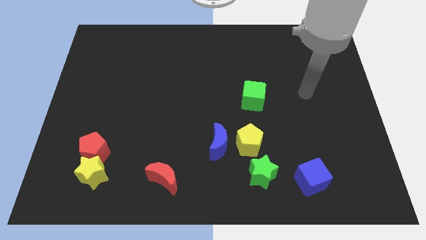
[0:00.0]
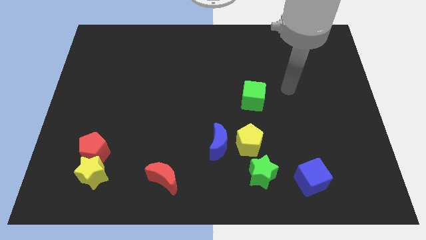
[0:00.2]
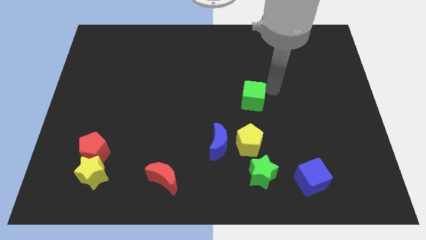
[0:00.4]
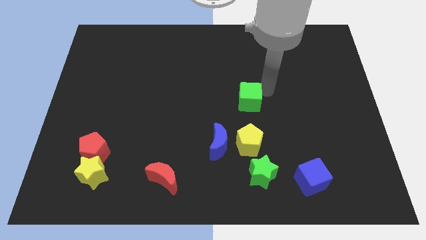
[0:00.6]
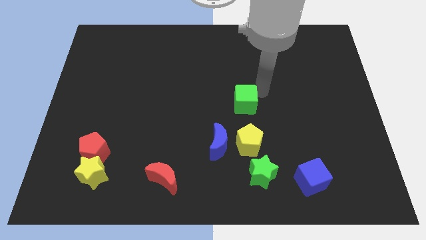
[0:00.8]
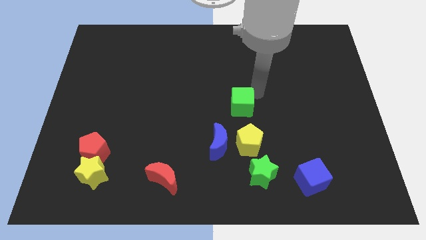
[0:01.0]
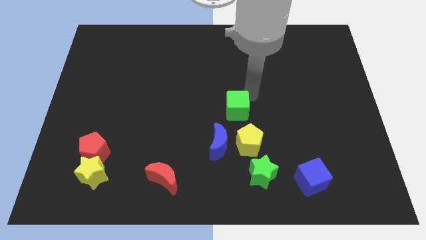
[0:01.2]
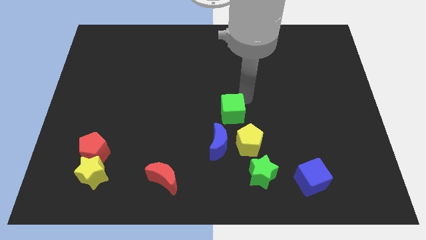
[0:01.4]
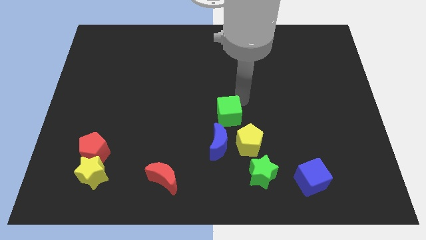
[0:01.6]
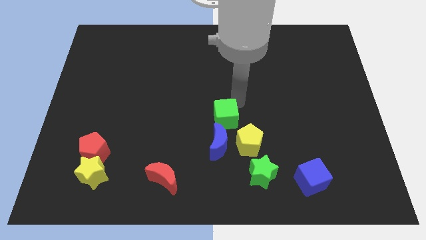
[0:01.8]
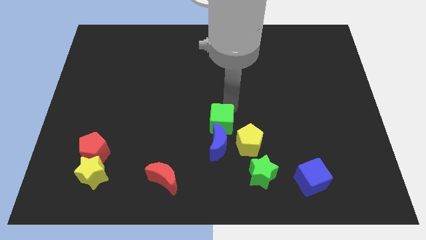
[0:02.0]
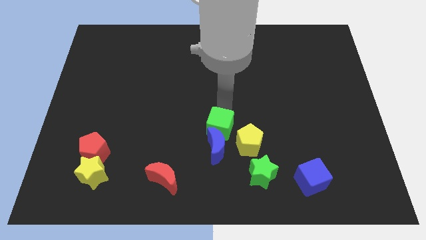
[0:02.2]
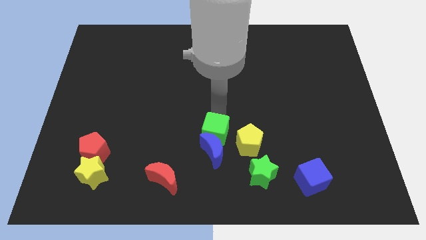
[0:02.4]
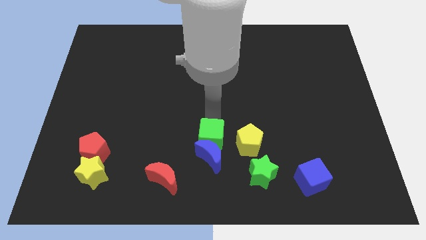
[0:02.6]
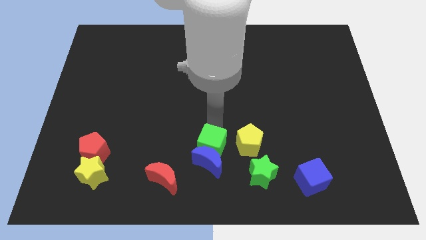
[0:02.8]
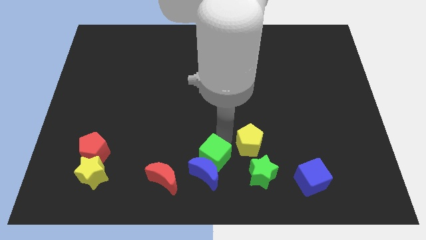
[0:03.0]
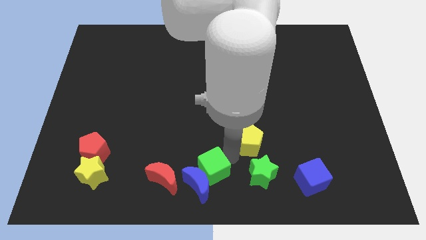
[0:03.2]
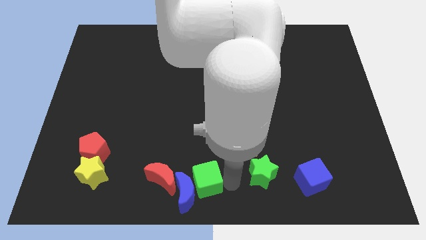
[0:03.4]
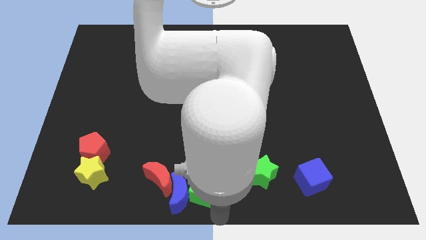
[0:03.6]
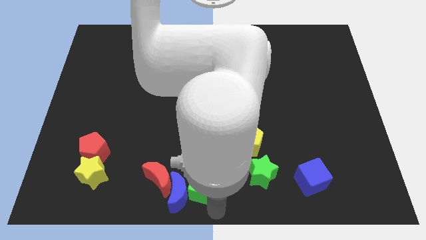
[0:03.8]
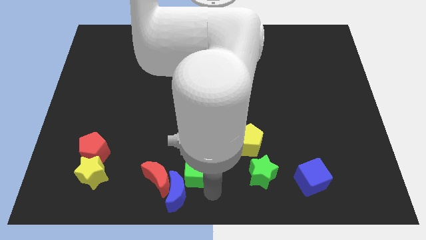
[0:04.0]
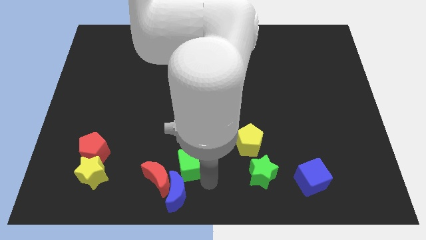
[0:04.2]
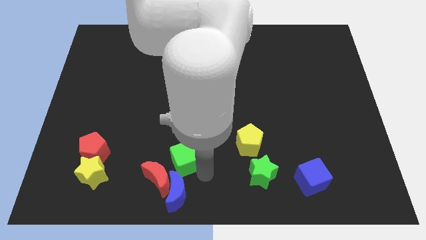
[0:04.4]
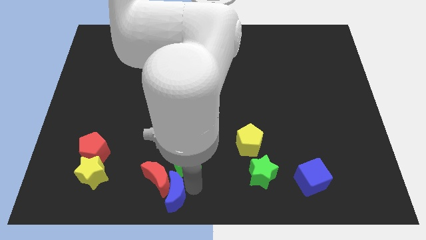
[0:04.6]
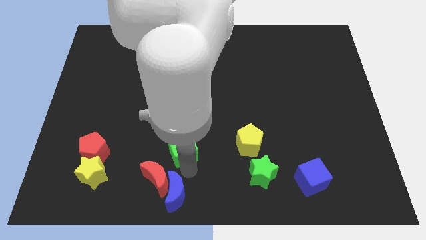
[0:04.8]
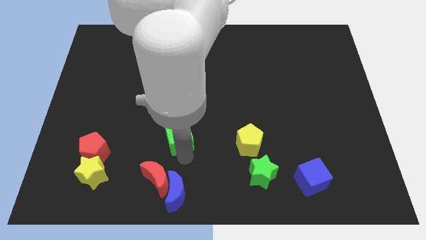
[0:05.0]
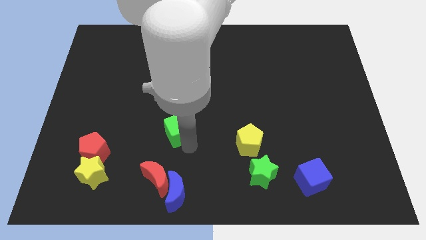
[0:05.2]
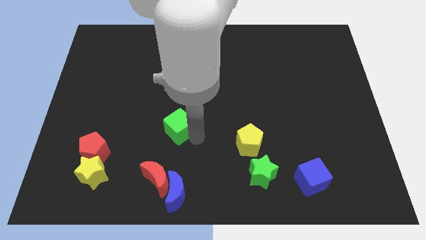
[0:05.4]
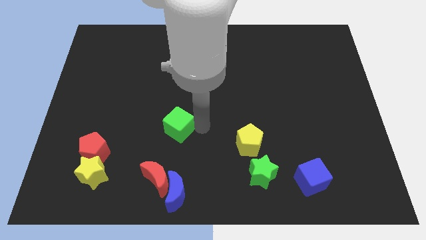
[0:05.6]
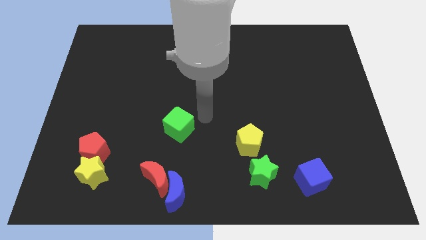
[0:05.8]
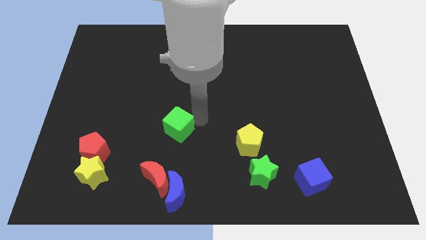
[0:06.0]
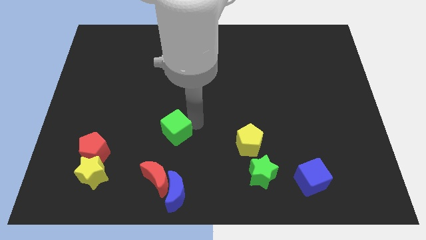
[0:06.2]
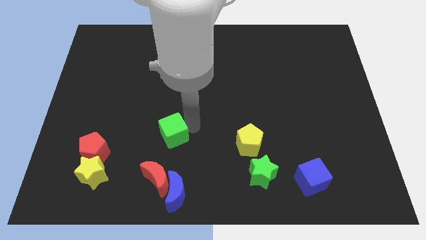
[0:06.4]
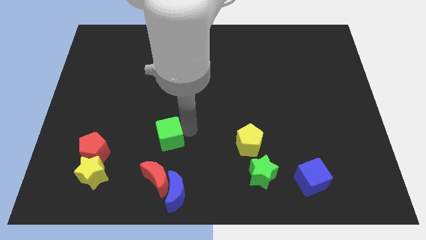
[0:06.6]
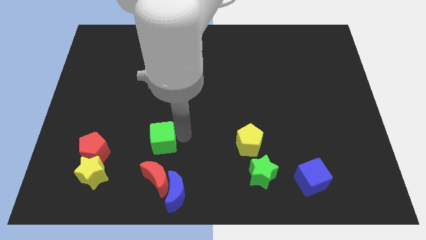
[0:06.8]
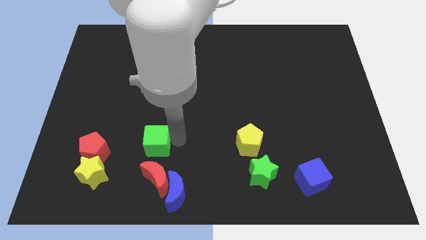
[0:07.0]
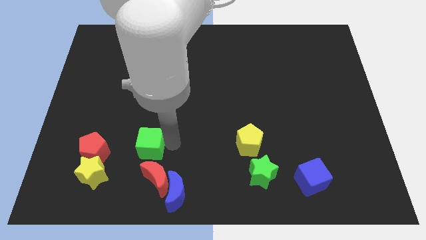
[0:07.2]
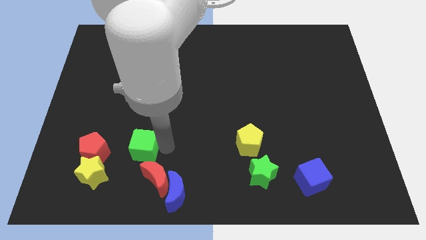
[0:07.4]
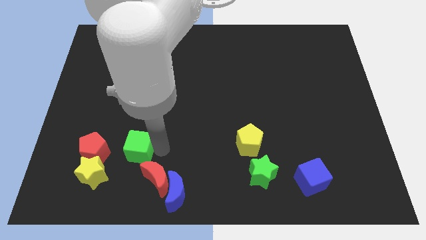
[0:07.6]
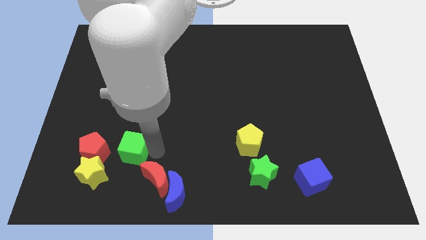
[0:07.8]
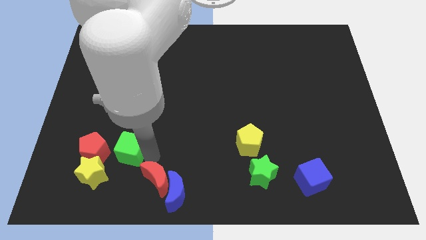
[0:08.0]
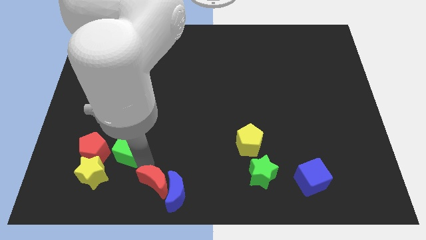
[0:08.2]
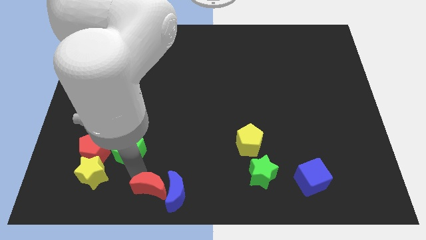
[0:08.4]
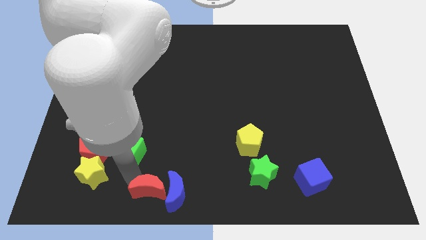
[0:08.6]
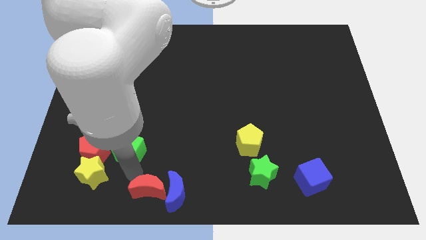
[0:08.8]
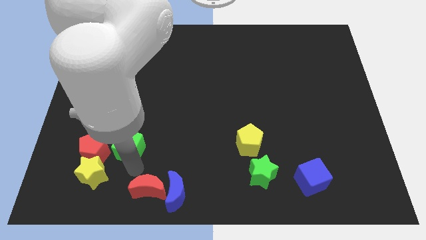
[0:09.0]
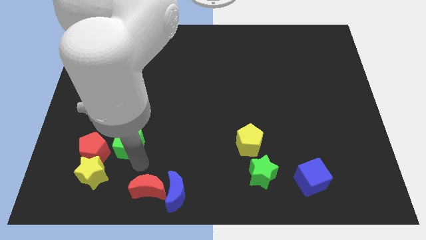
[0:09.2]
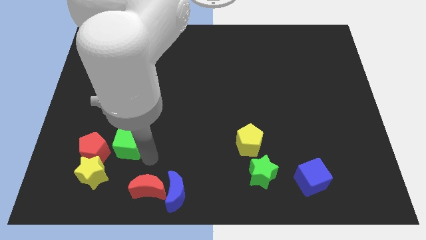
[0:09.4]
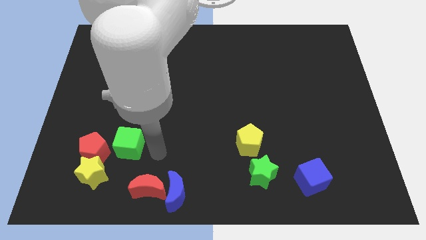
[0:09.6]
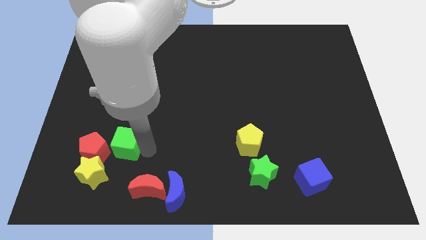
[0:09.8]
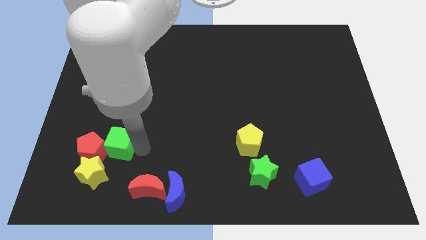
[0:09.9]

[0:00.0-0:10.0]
put the green cube next to the red pentagon

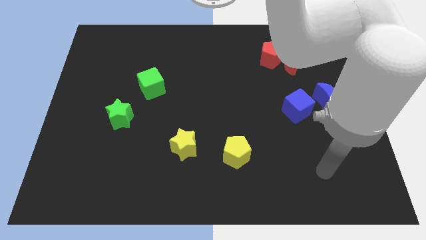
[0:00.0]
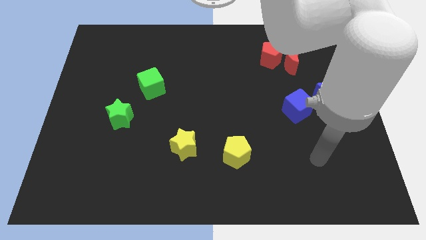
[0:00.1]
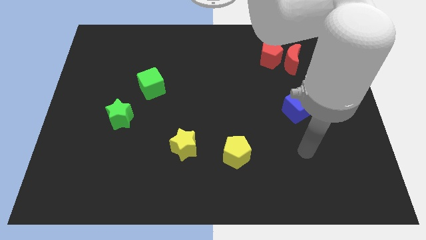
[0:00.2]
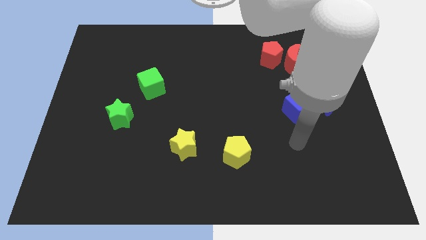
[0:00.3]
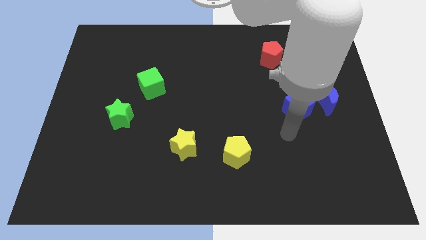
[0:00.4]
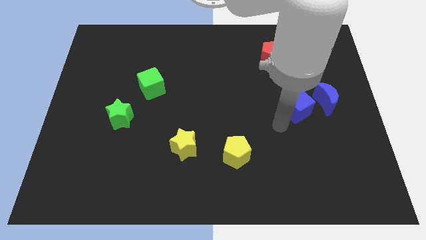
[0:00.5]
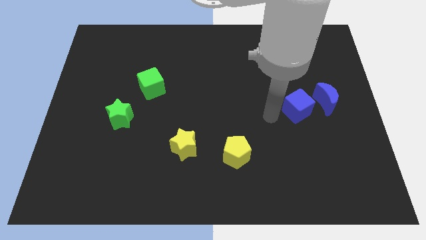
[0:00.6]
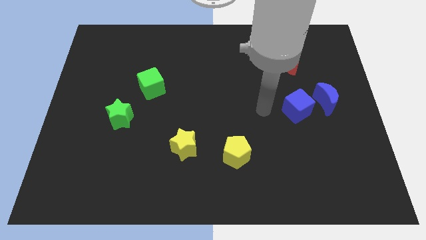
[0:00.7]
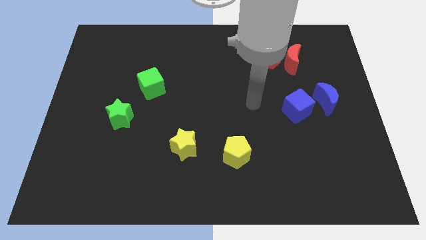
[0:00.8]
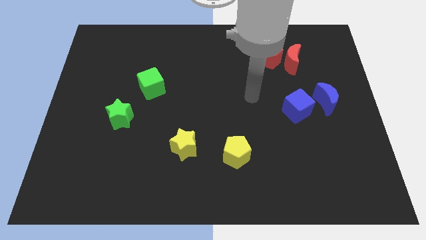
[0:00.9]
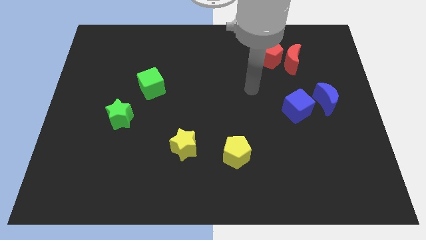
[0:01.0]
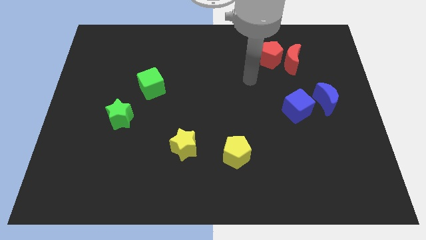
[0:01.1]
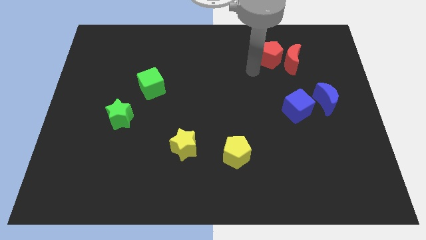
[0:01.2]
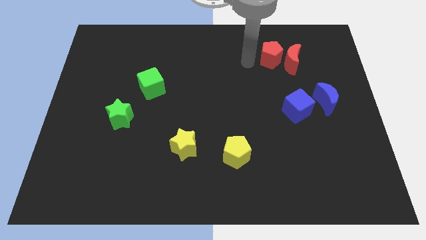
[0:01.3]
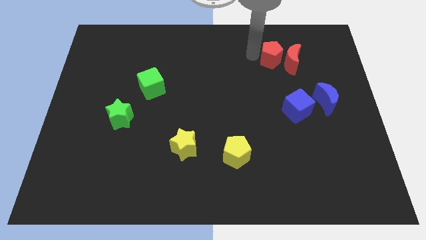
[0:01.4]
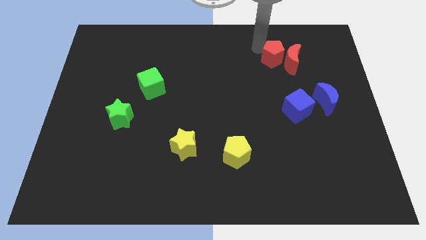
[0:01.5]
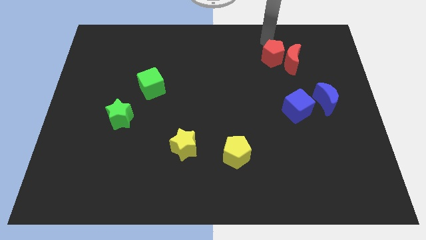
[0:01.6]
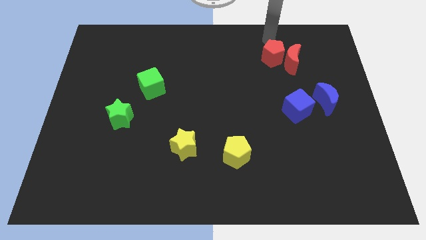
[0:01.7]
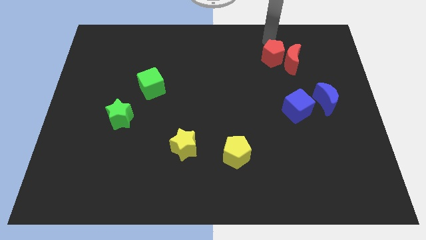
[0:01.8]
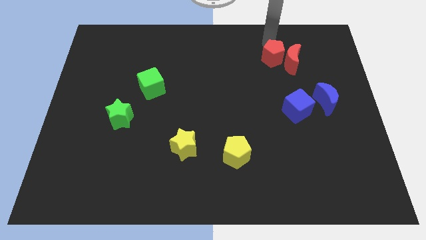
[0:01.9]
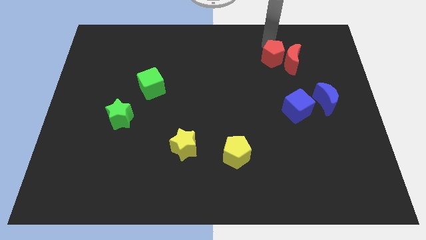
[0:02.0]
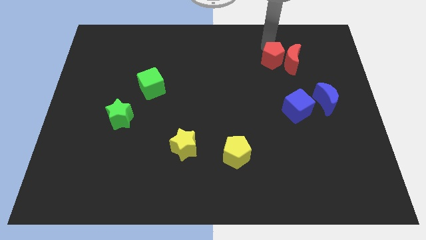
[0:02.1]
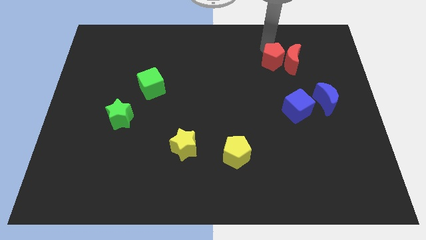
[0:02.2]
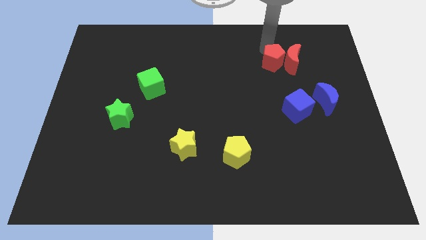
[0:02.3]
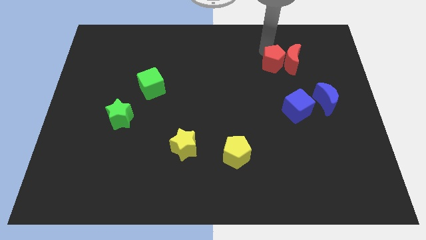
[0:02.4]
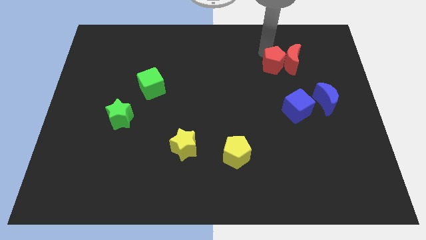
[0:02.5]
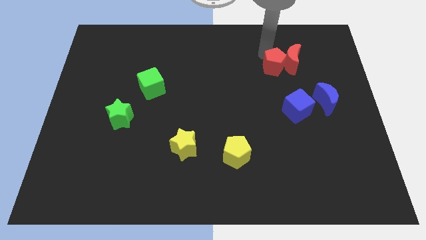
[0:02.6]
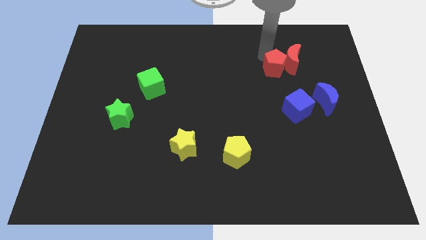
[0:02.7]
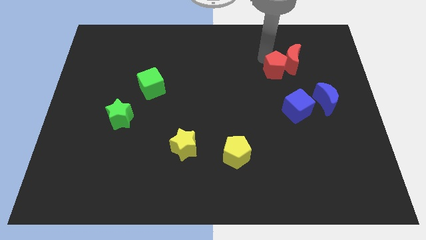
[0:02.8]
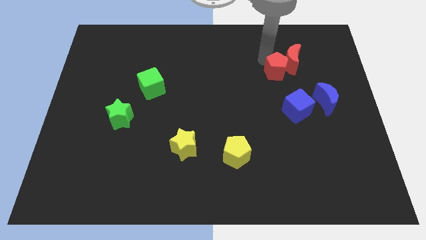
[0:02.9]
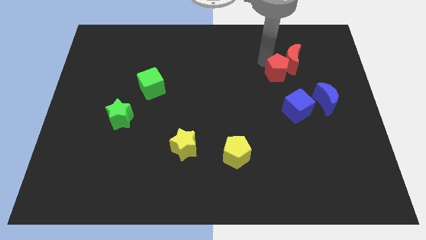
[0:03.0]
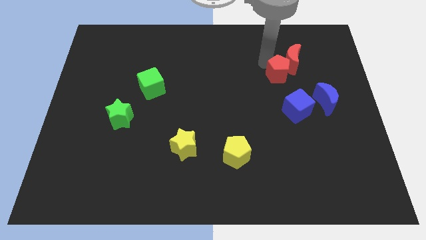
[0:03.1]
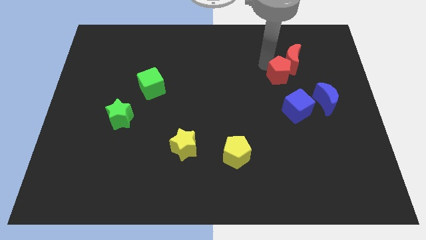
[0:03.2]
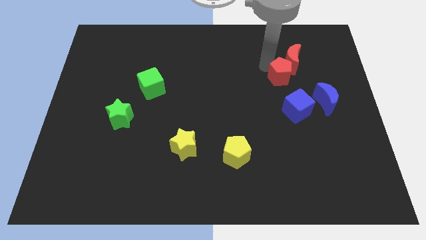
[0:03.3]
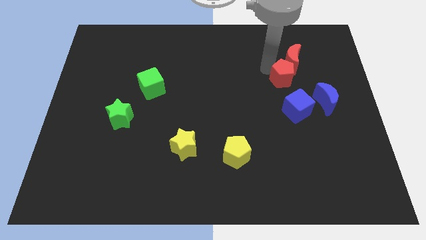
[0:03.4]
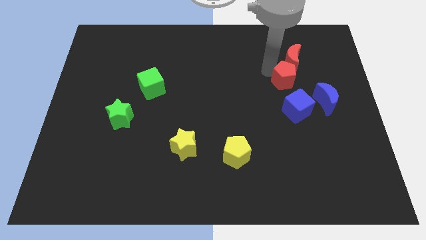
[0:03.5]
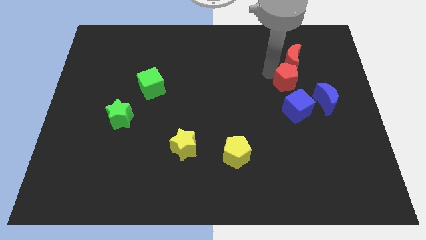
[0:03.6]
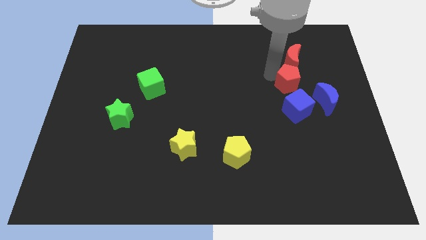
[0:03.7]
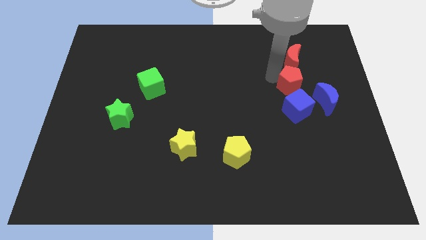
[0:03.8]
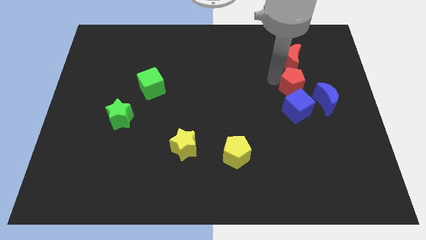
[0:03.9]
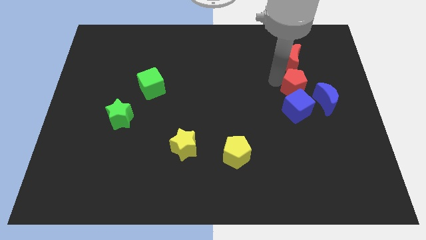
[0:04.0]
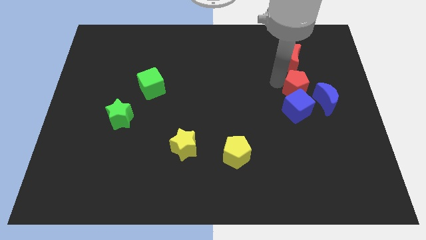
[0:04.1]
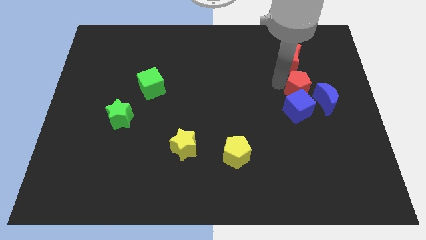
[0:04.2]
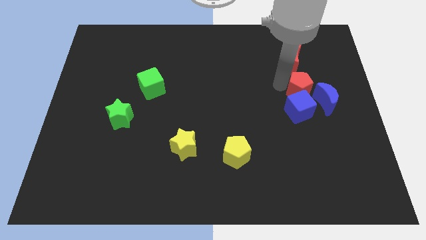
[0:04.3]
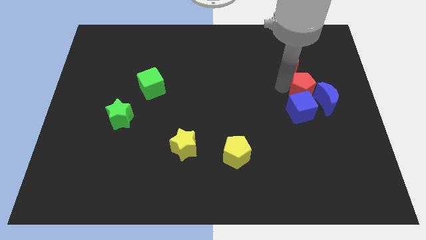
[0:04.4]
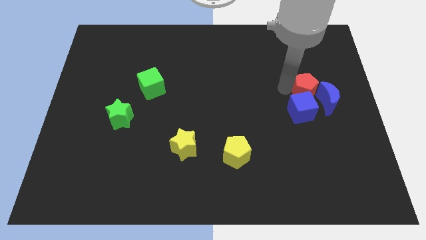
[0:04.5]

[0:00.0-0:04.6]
put the red pentagon towards the blue moon
